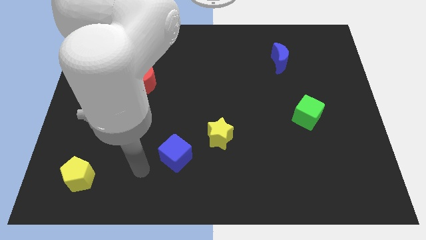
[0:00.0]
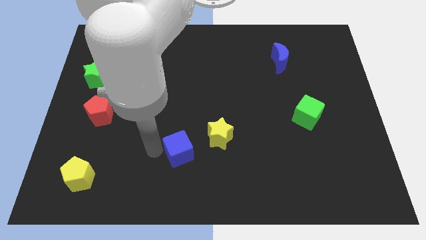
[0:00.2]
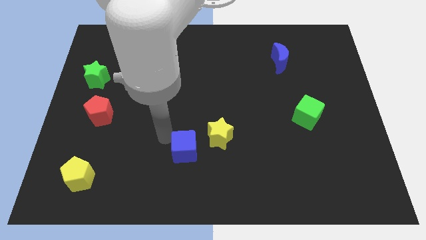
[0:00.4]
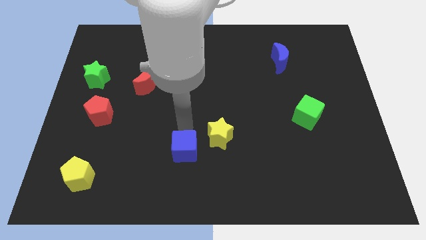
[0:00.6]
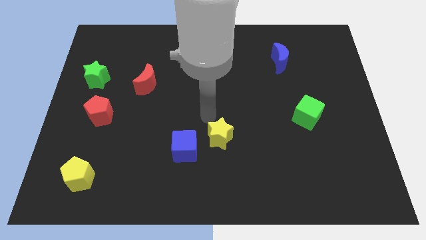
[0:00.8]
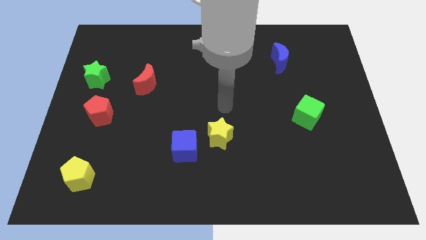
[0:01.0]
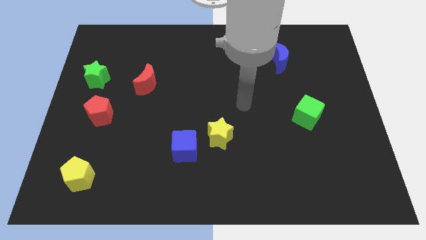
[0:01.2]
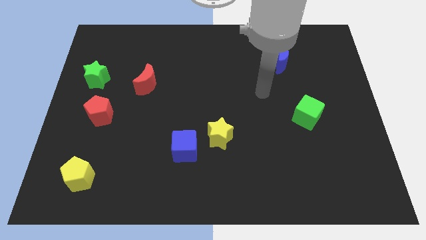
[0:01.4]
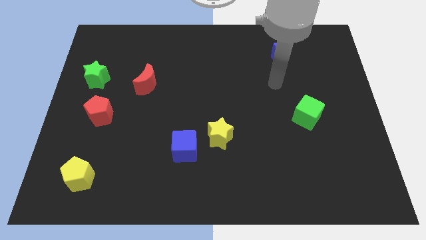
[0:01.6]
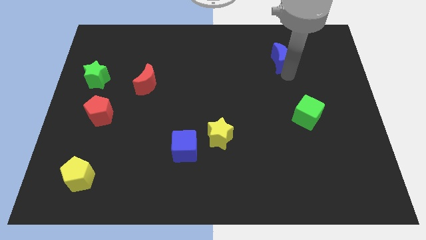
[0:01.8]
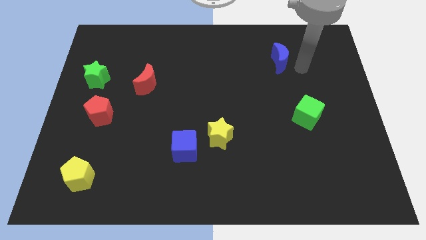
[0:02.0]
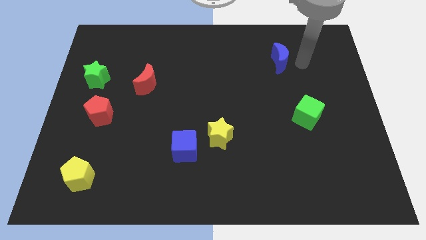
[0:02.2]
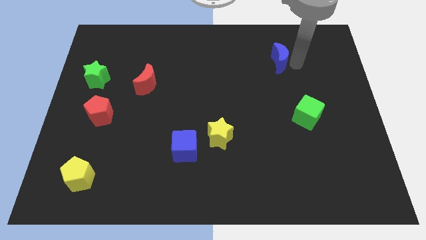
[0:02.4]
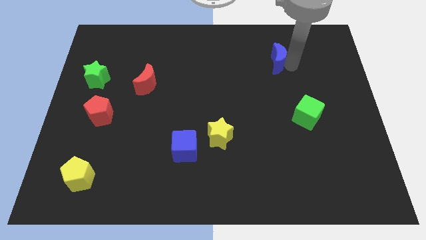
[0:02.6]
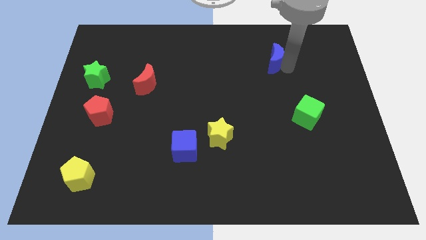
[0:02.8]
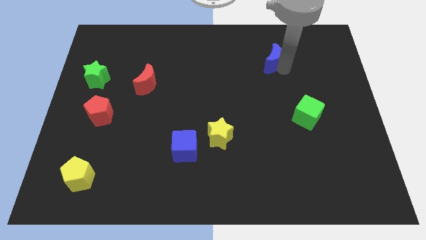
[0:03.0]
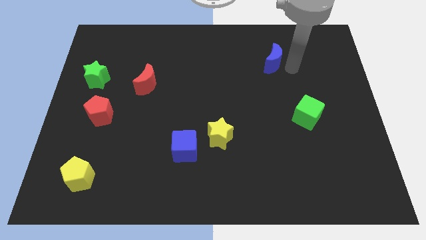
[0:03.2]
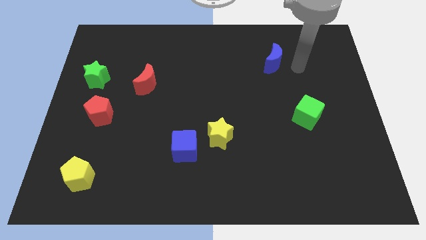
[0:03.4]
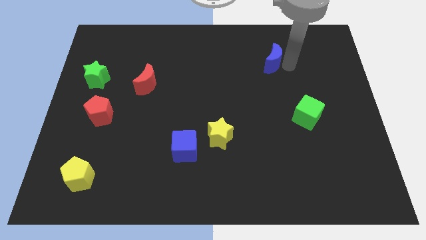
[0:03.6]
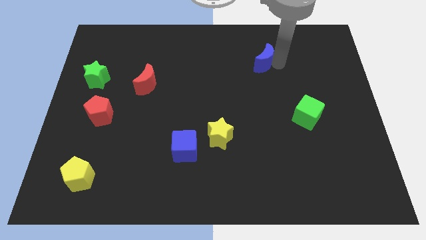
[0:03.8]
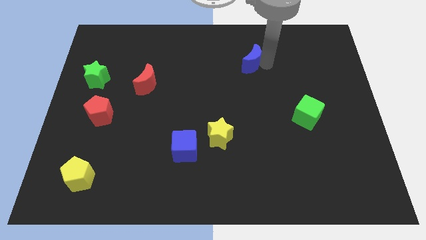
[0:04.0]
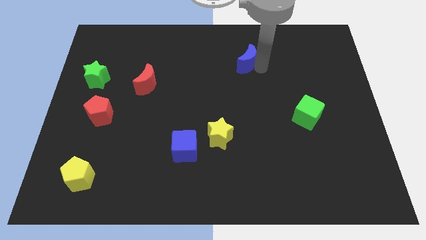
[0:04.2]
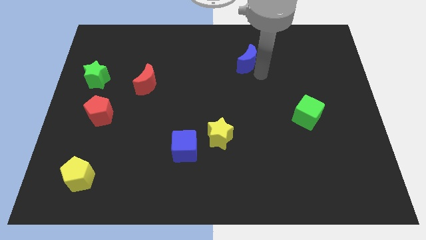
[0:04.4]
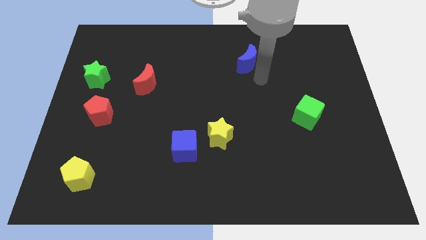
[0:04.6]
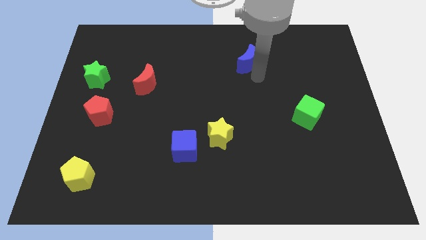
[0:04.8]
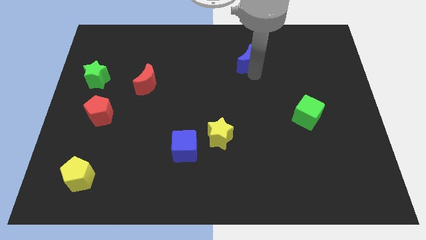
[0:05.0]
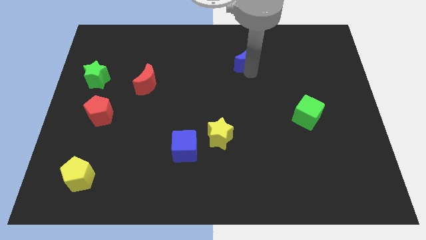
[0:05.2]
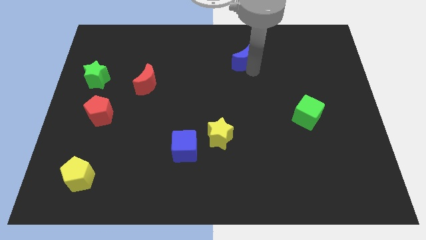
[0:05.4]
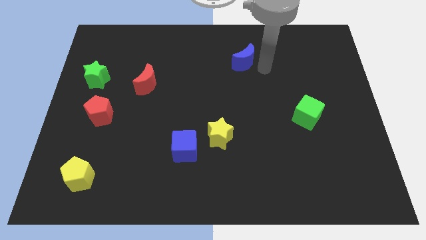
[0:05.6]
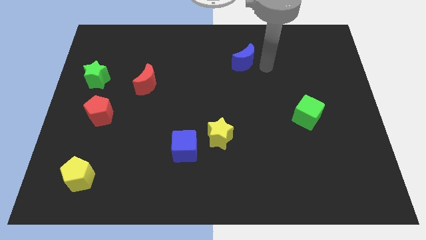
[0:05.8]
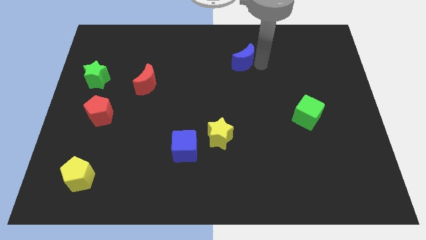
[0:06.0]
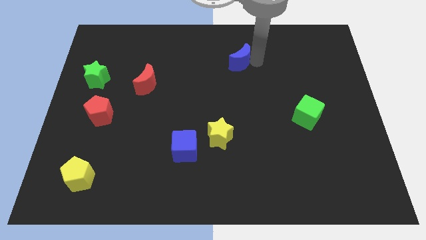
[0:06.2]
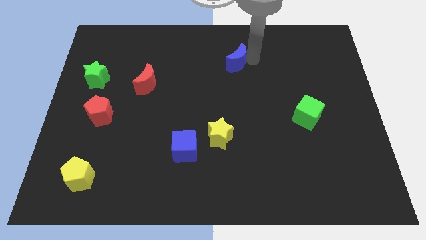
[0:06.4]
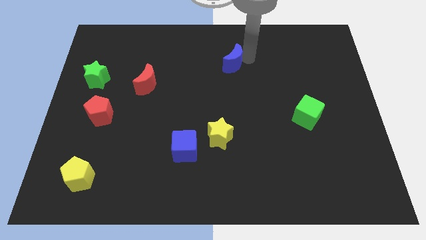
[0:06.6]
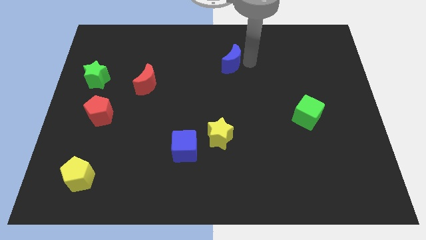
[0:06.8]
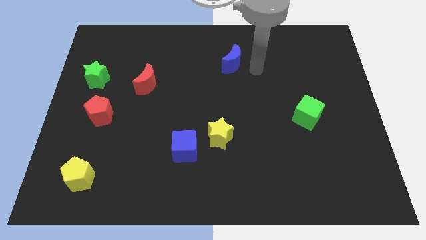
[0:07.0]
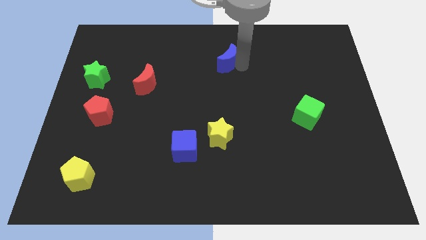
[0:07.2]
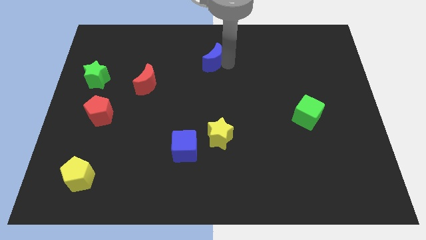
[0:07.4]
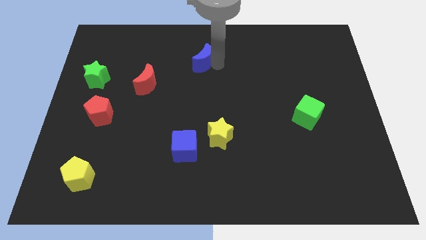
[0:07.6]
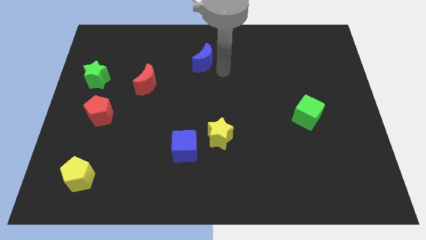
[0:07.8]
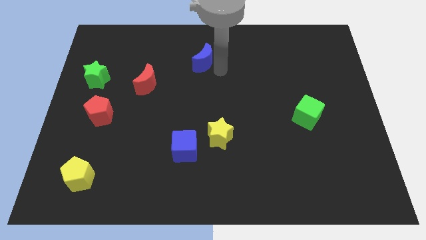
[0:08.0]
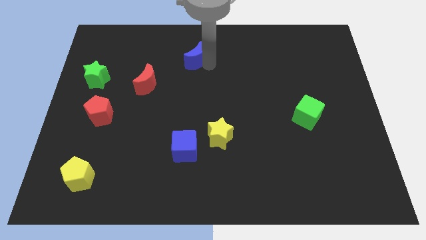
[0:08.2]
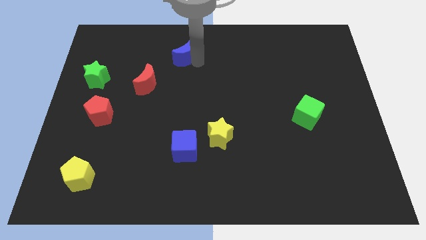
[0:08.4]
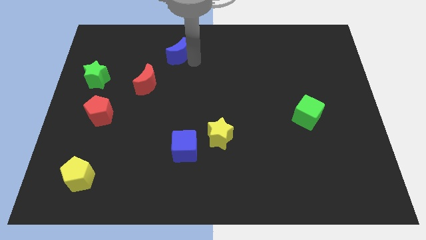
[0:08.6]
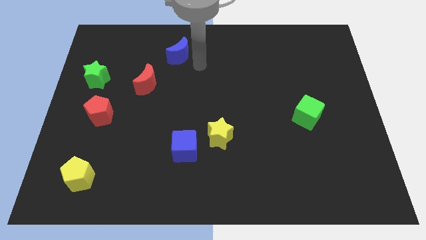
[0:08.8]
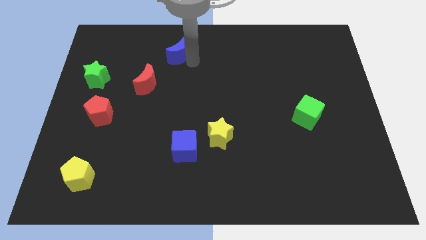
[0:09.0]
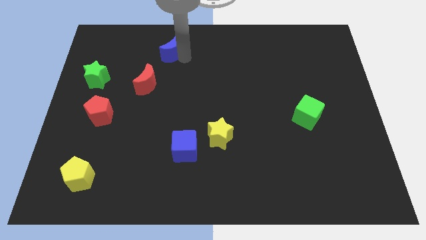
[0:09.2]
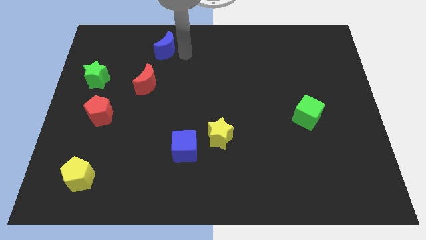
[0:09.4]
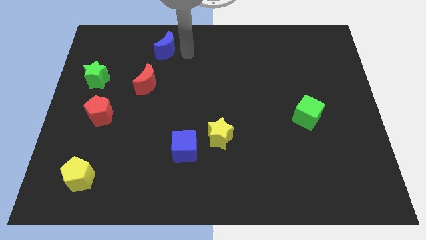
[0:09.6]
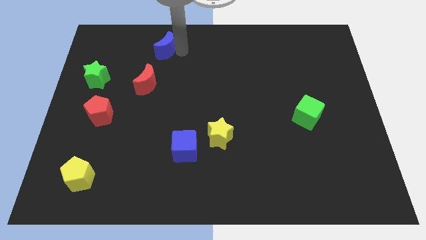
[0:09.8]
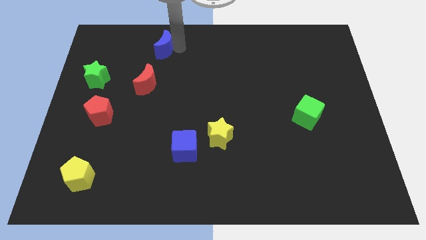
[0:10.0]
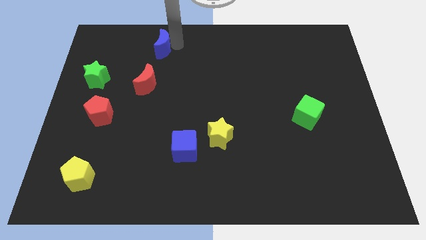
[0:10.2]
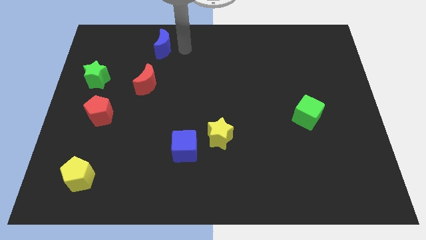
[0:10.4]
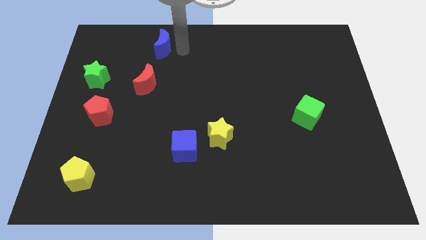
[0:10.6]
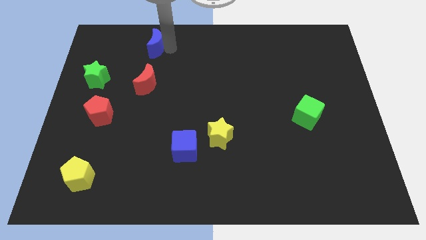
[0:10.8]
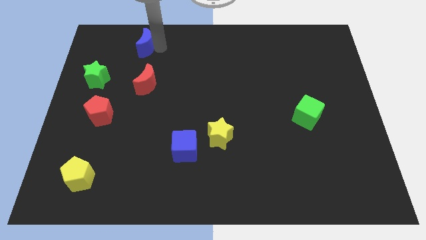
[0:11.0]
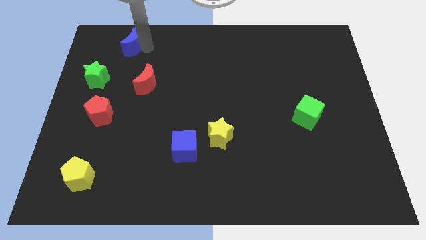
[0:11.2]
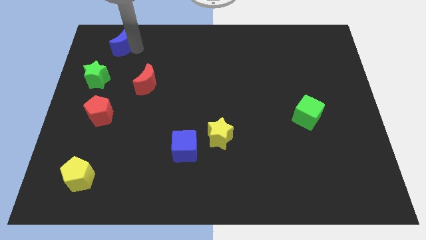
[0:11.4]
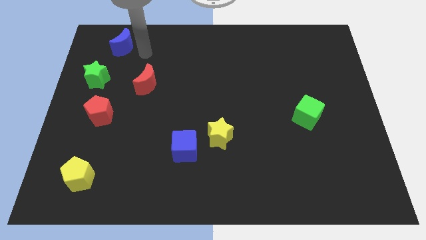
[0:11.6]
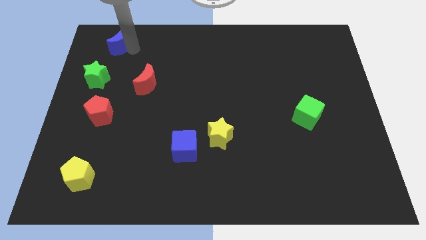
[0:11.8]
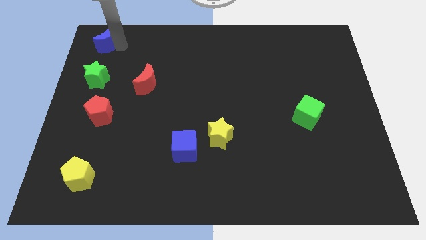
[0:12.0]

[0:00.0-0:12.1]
put the blue moon to the top left corner
